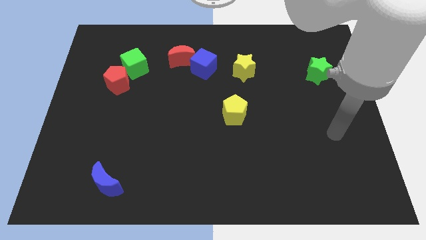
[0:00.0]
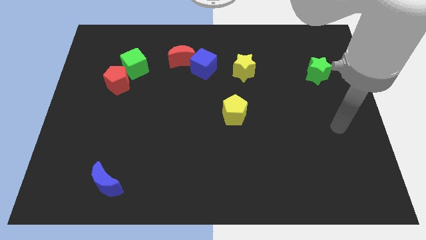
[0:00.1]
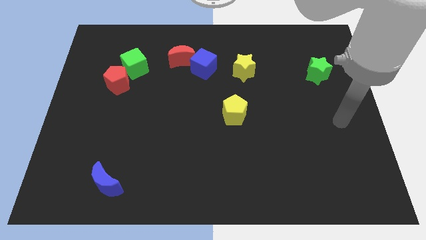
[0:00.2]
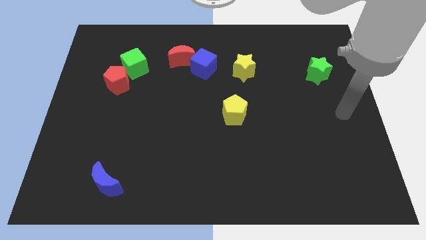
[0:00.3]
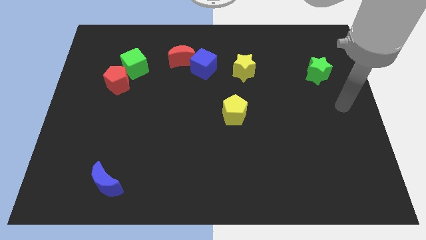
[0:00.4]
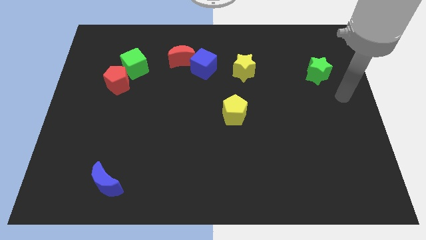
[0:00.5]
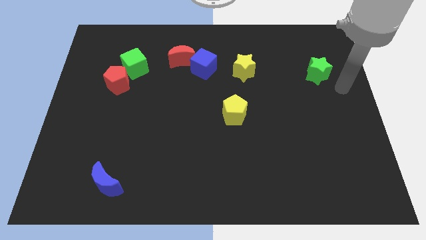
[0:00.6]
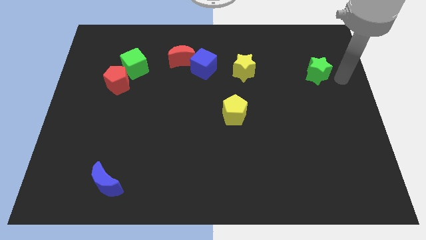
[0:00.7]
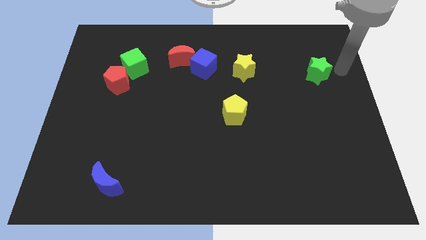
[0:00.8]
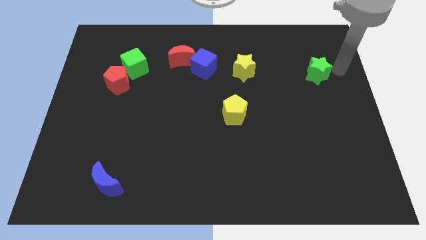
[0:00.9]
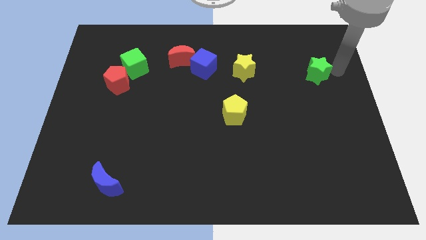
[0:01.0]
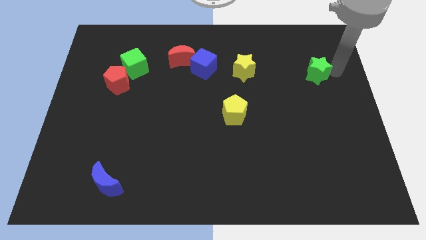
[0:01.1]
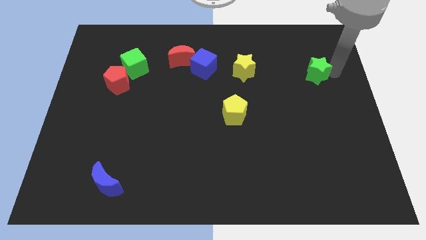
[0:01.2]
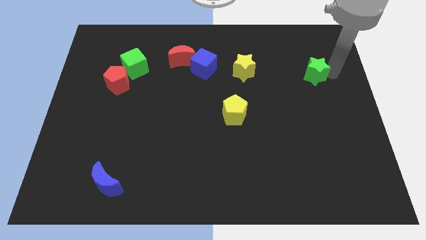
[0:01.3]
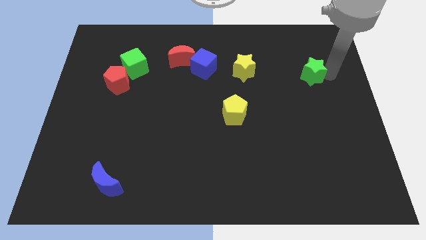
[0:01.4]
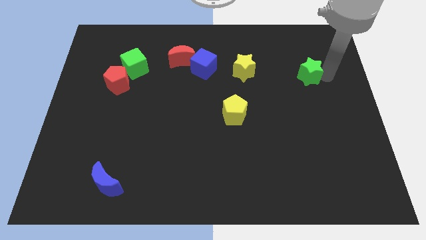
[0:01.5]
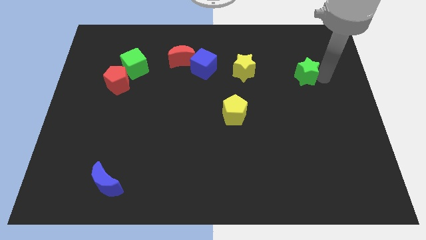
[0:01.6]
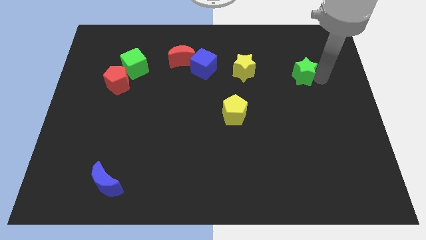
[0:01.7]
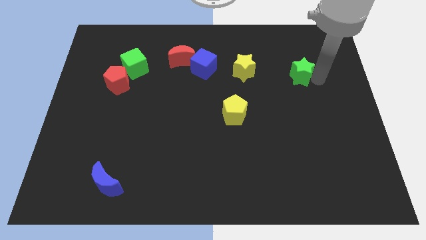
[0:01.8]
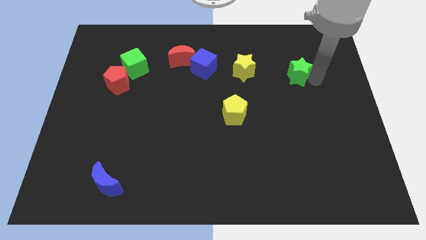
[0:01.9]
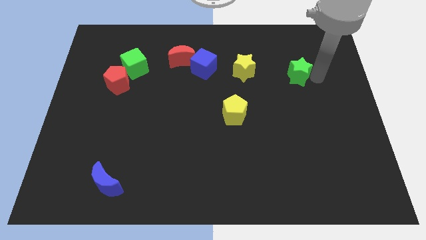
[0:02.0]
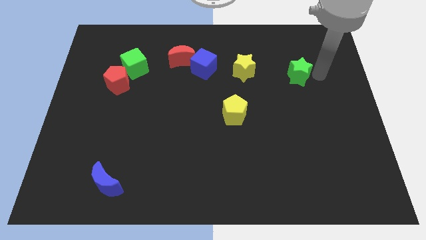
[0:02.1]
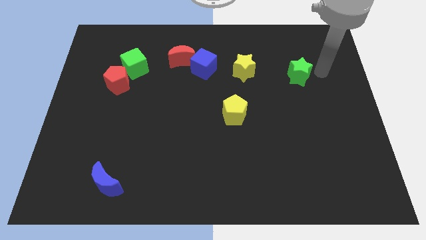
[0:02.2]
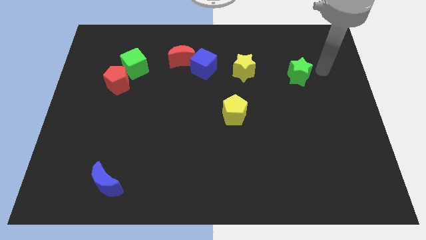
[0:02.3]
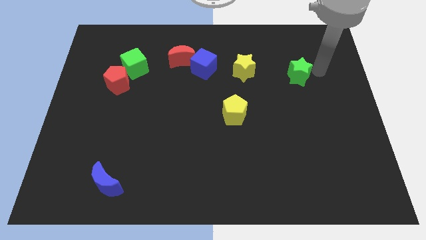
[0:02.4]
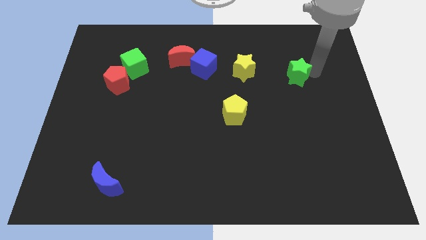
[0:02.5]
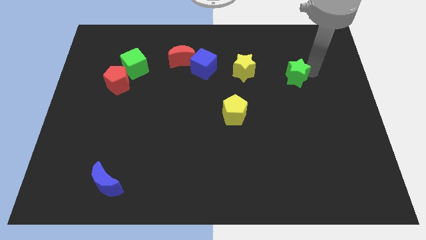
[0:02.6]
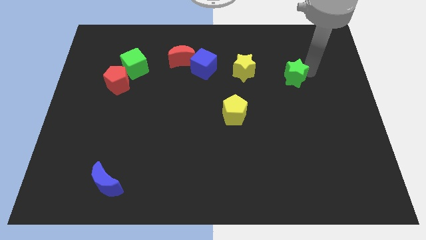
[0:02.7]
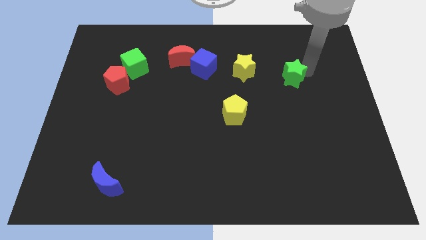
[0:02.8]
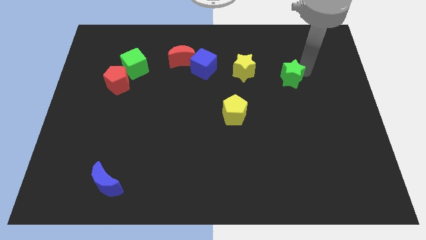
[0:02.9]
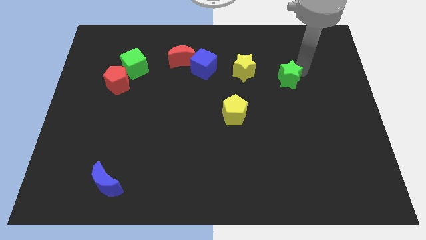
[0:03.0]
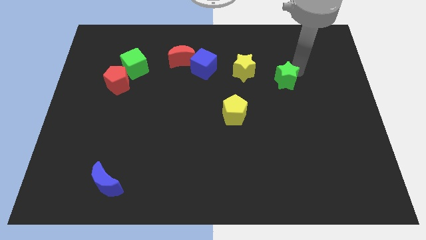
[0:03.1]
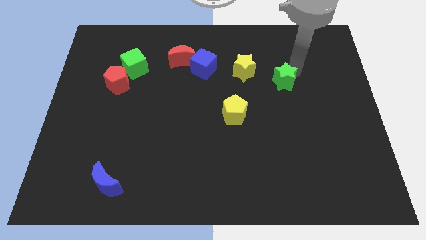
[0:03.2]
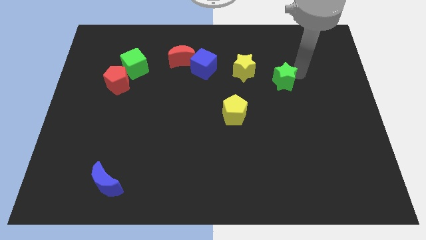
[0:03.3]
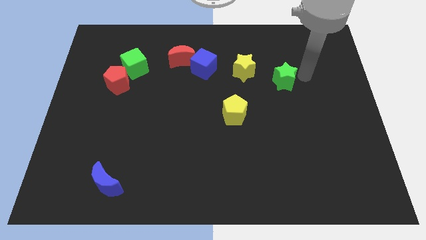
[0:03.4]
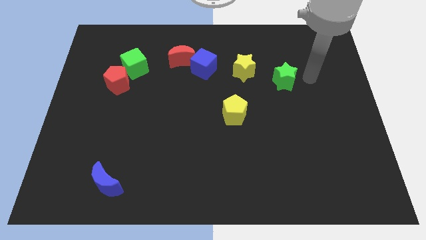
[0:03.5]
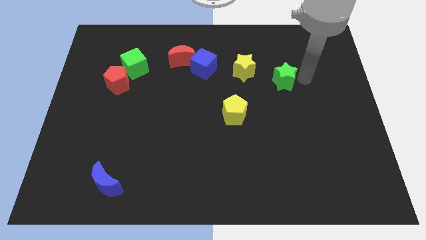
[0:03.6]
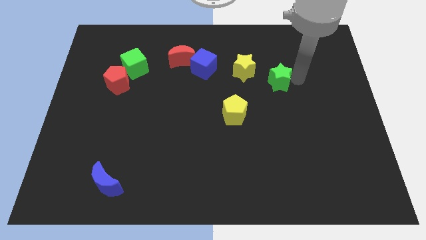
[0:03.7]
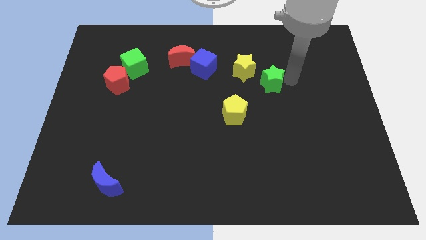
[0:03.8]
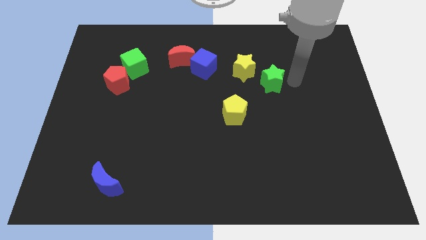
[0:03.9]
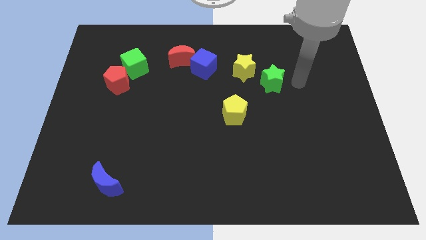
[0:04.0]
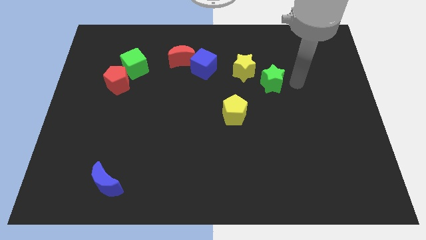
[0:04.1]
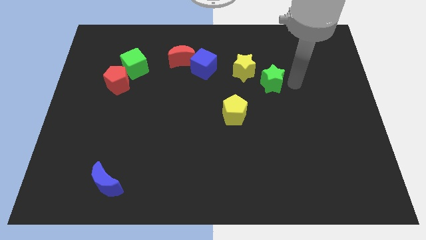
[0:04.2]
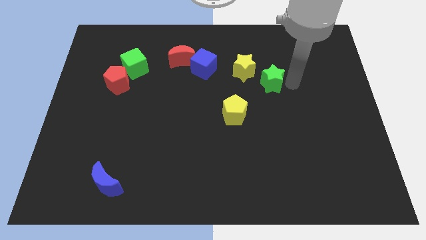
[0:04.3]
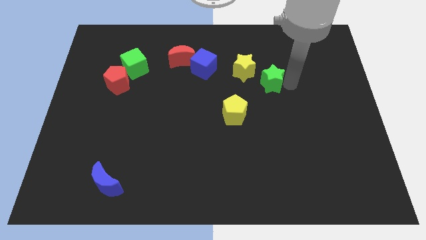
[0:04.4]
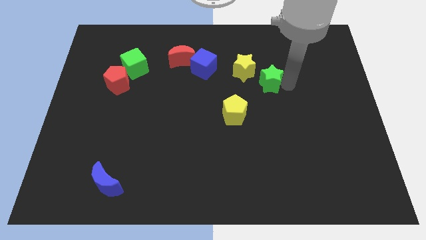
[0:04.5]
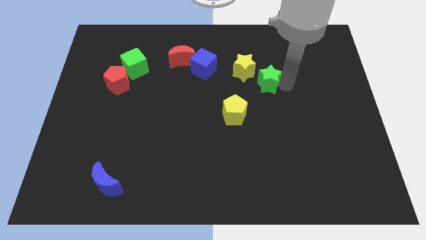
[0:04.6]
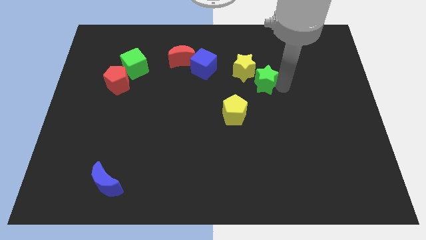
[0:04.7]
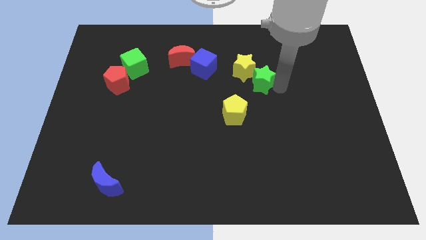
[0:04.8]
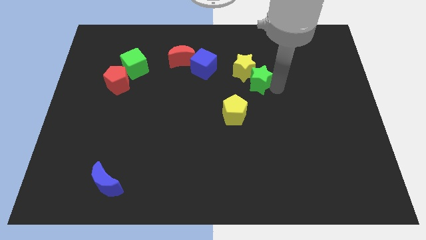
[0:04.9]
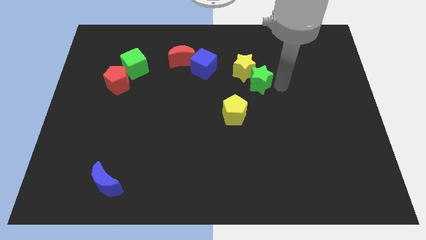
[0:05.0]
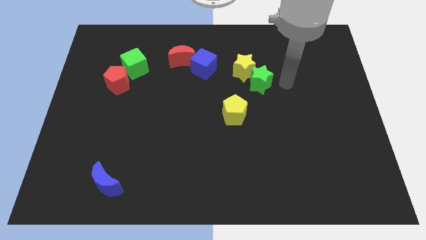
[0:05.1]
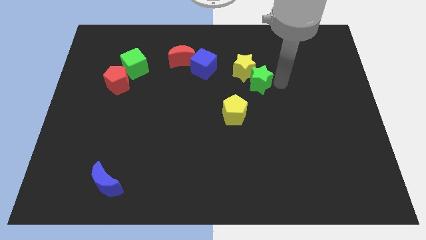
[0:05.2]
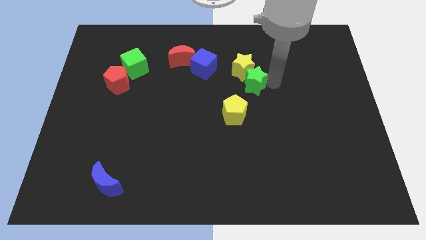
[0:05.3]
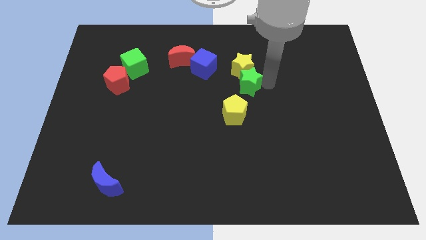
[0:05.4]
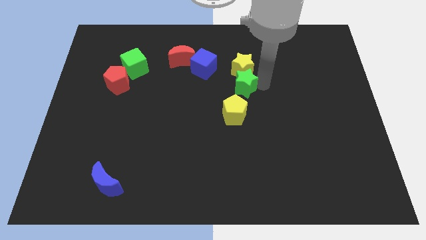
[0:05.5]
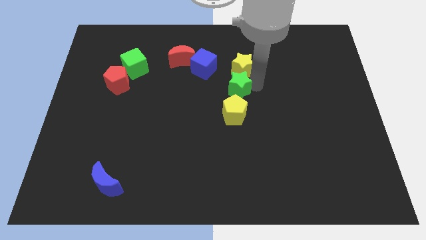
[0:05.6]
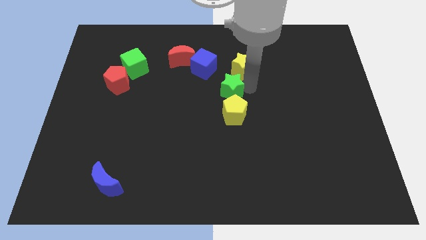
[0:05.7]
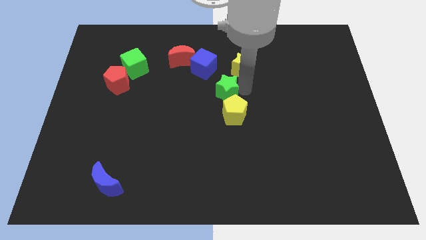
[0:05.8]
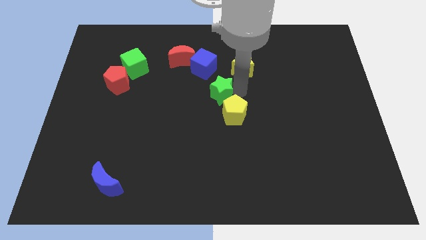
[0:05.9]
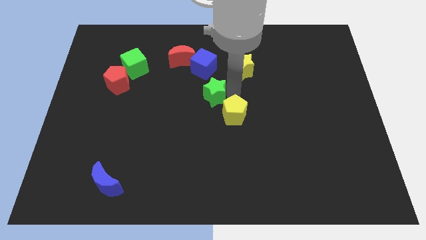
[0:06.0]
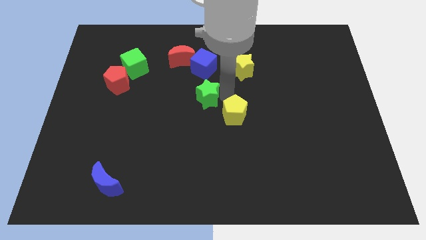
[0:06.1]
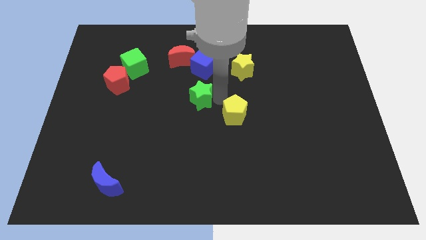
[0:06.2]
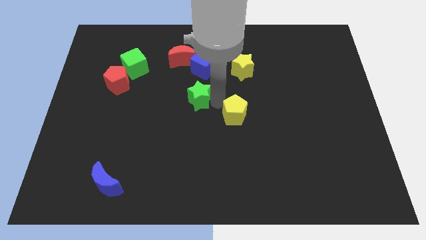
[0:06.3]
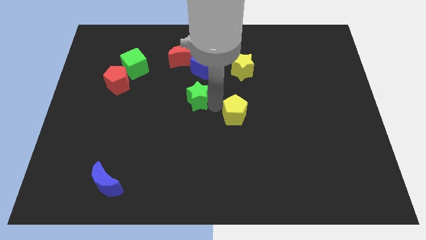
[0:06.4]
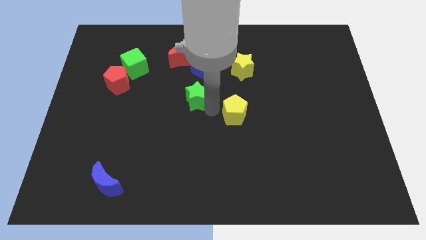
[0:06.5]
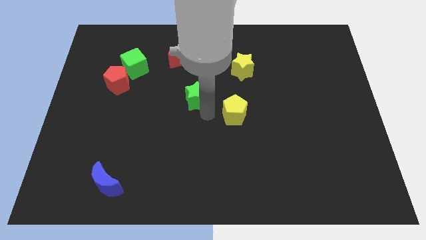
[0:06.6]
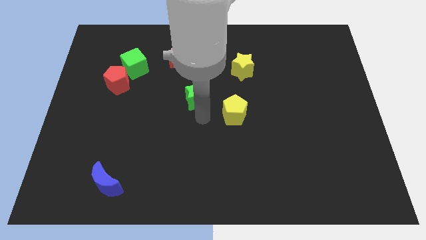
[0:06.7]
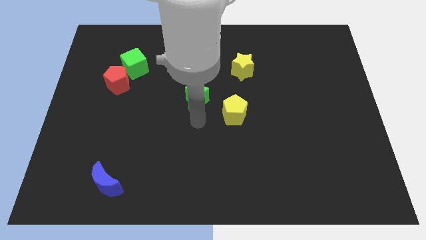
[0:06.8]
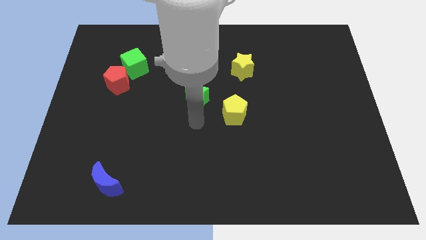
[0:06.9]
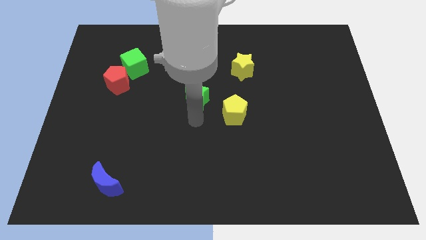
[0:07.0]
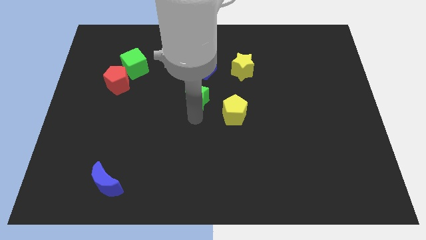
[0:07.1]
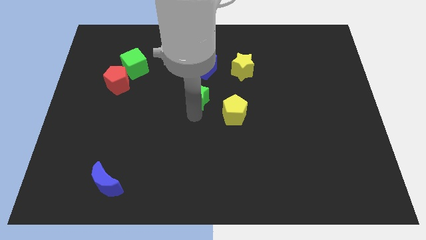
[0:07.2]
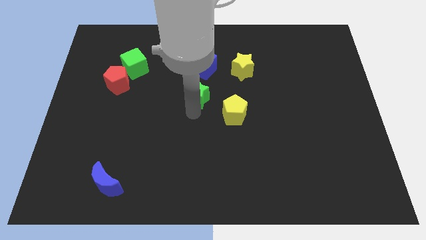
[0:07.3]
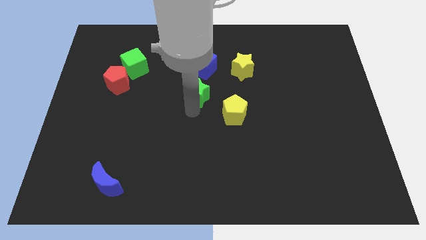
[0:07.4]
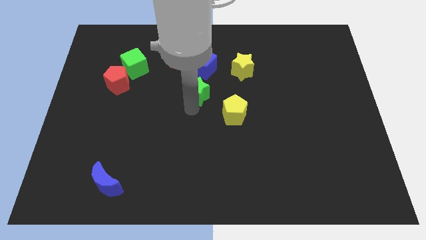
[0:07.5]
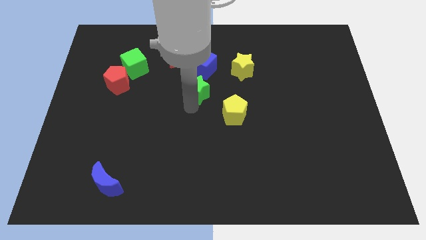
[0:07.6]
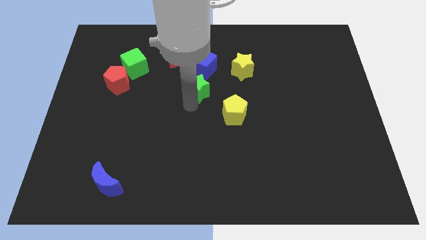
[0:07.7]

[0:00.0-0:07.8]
slide the green star to the bottom left of the blue cube
